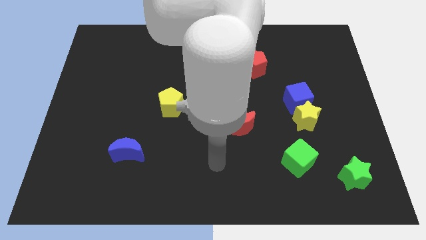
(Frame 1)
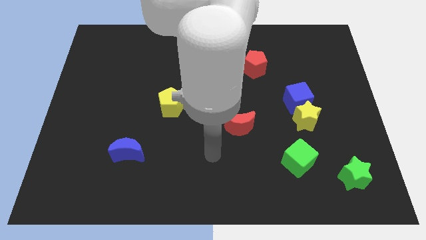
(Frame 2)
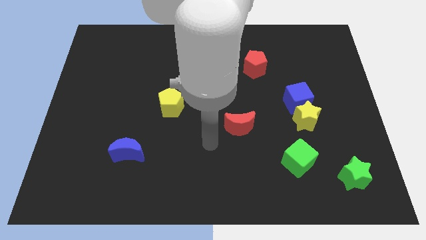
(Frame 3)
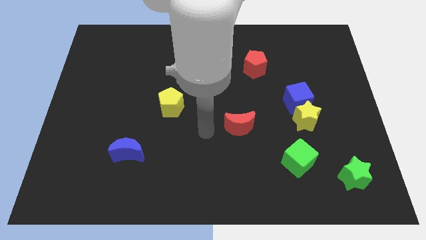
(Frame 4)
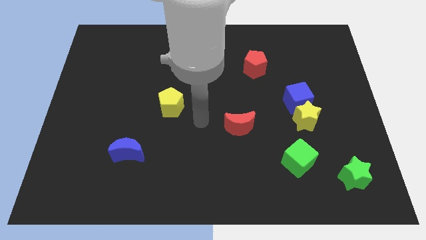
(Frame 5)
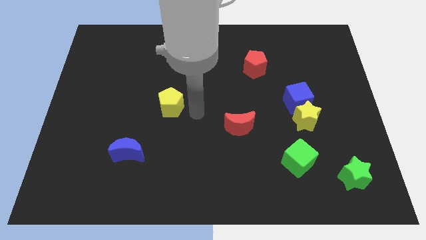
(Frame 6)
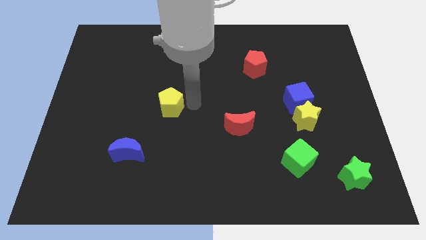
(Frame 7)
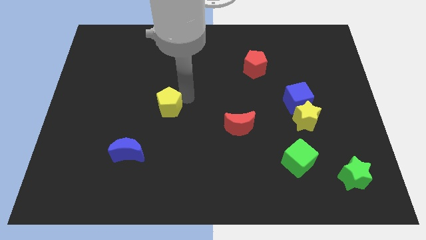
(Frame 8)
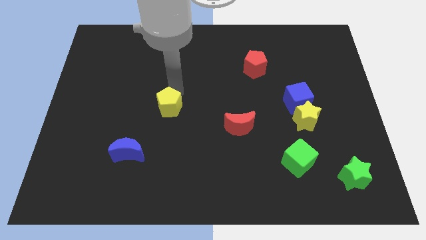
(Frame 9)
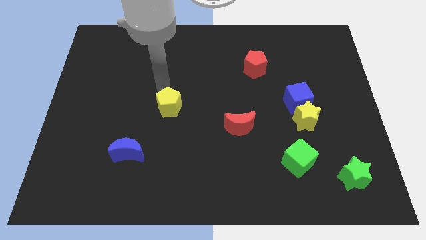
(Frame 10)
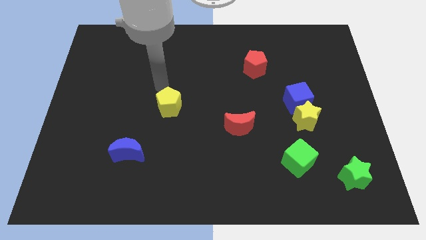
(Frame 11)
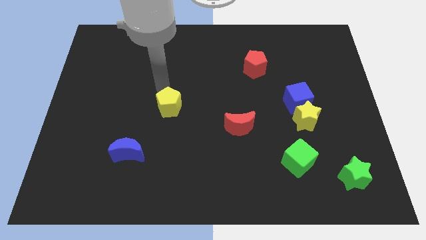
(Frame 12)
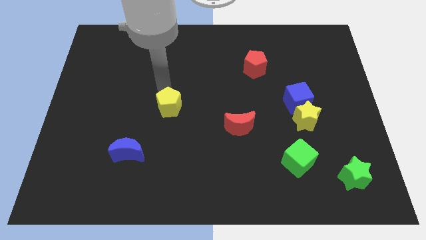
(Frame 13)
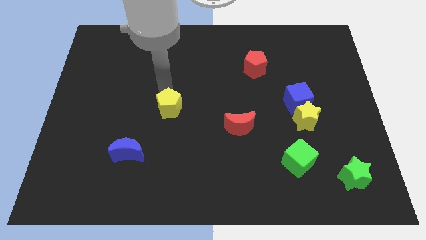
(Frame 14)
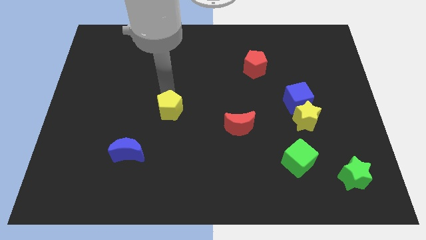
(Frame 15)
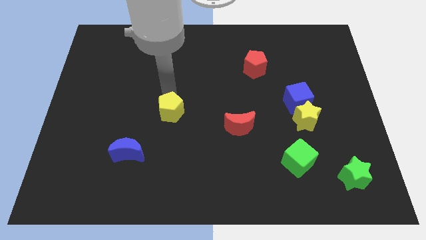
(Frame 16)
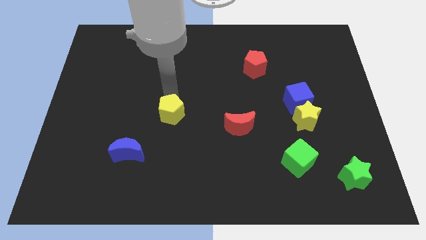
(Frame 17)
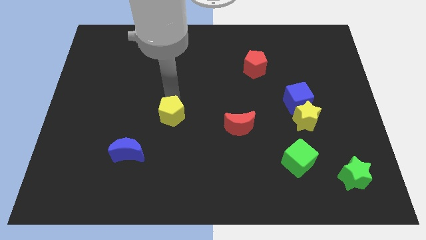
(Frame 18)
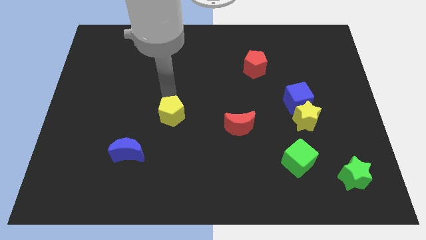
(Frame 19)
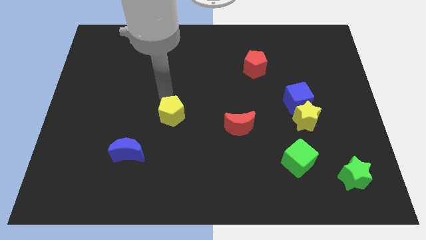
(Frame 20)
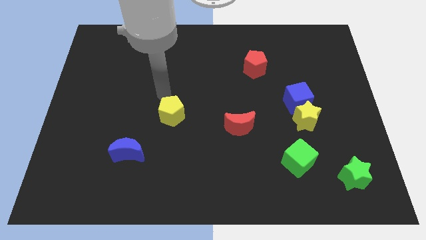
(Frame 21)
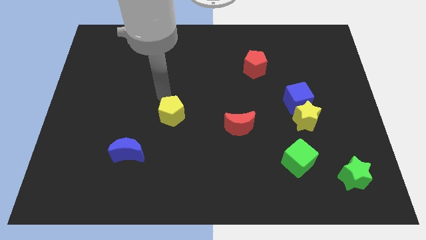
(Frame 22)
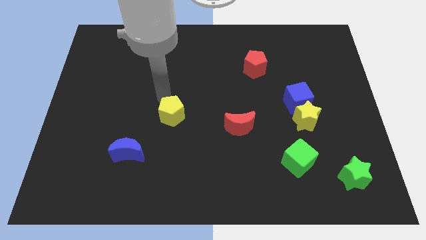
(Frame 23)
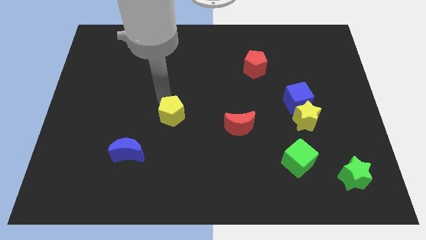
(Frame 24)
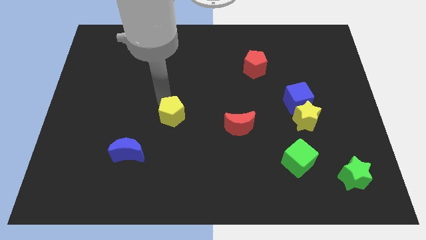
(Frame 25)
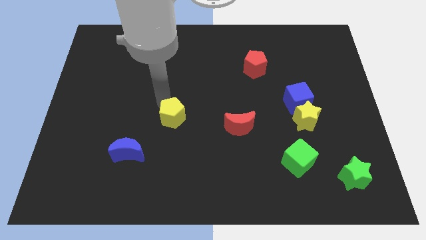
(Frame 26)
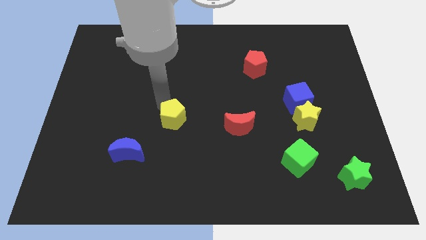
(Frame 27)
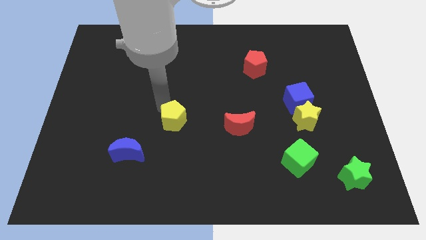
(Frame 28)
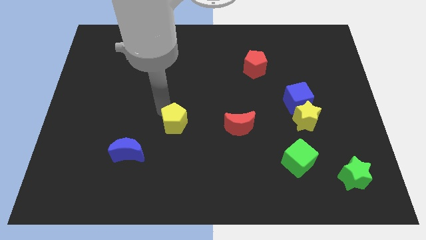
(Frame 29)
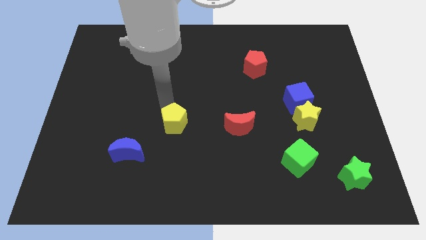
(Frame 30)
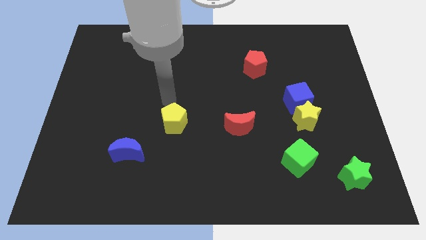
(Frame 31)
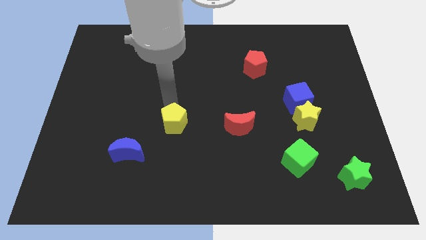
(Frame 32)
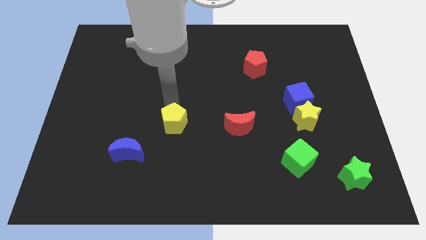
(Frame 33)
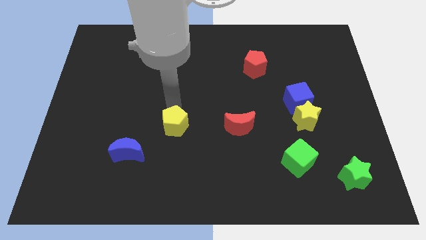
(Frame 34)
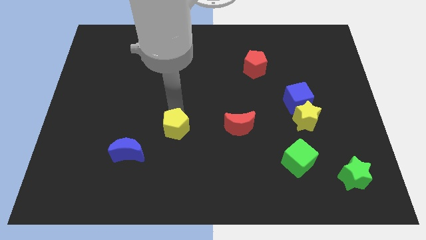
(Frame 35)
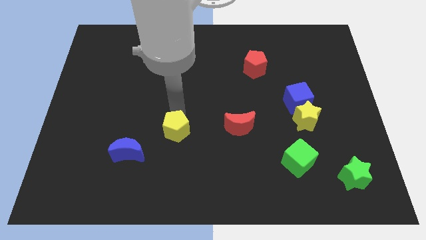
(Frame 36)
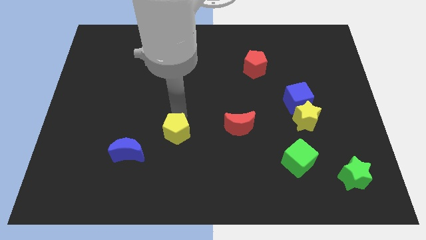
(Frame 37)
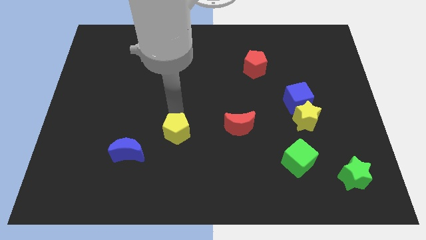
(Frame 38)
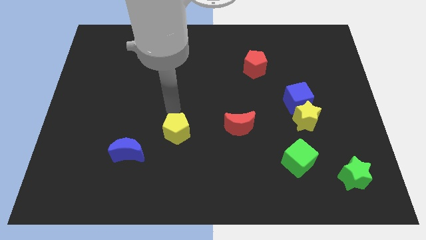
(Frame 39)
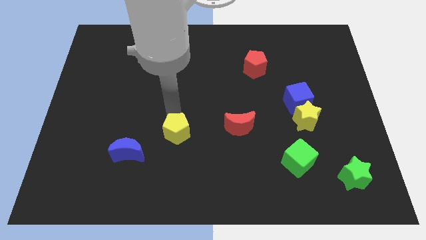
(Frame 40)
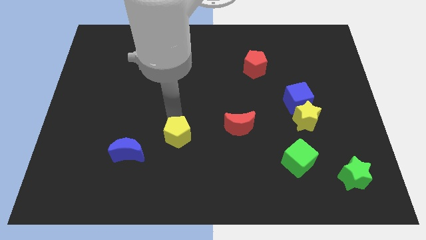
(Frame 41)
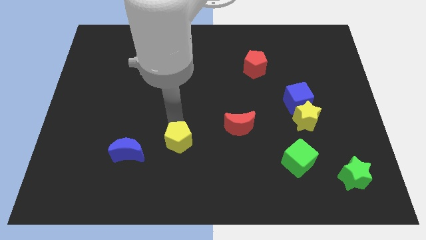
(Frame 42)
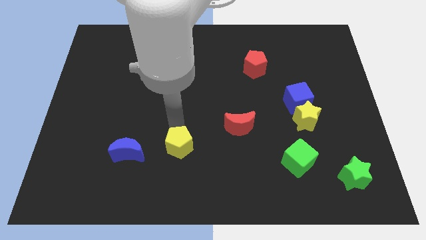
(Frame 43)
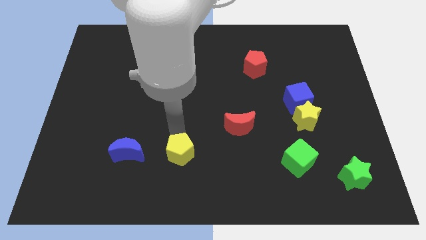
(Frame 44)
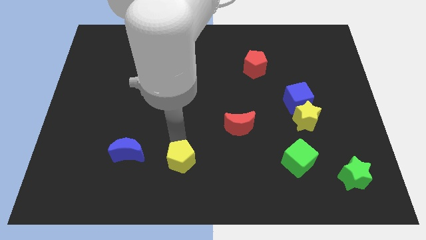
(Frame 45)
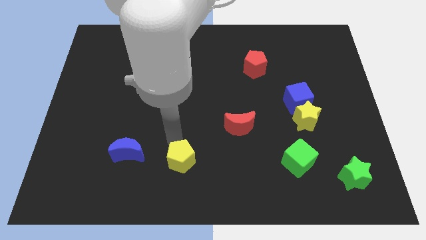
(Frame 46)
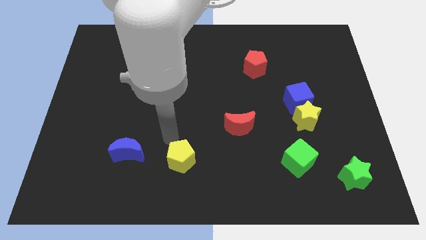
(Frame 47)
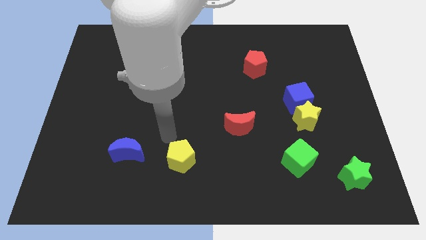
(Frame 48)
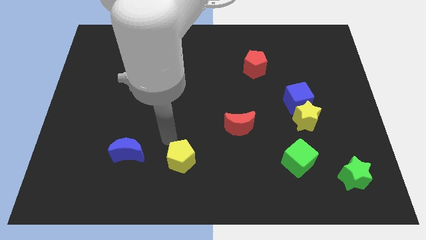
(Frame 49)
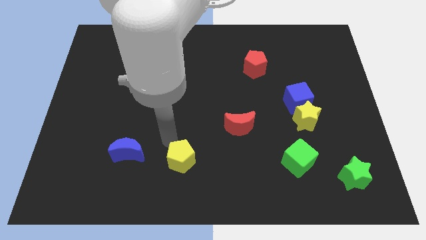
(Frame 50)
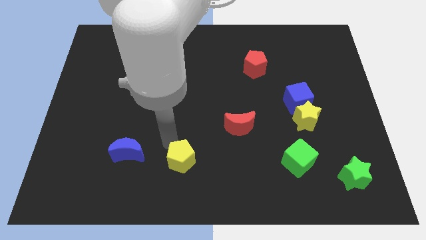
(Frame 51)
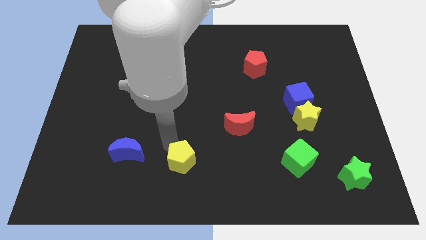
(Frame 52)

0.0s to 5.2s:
slide the yellow pentagon to the bottom
